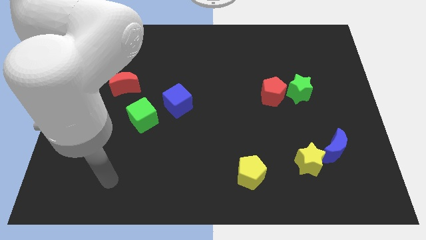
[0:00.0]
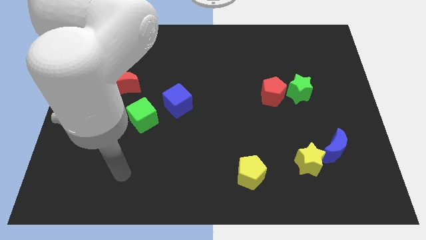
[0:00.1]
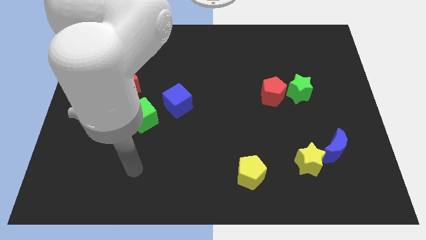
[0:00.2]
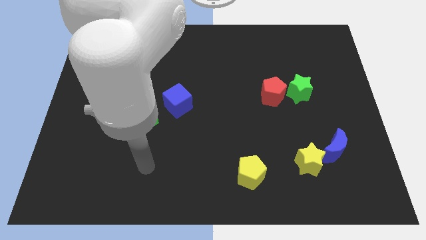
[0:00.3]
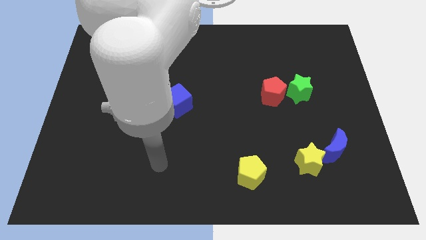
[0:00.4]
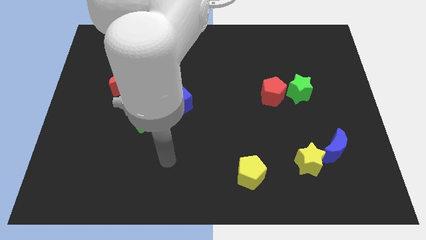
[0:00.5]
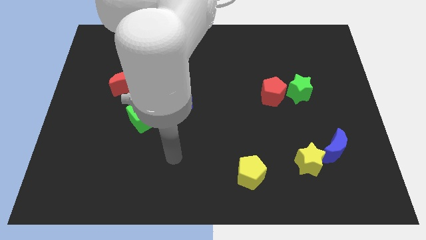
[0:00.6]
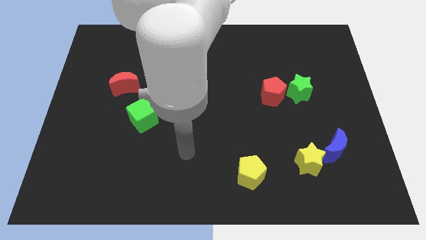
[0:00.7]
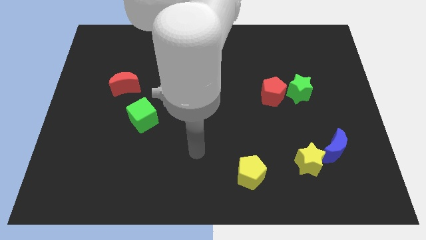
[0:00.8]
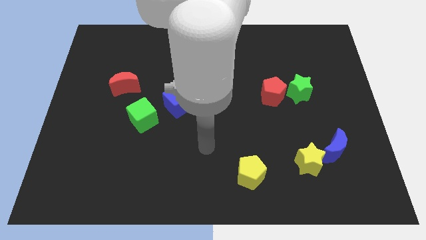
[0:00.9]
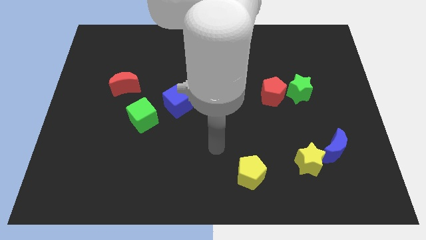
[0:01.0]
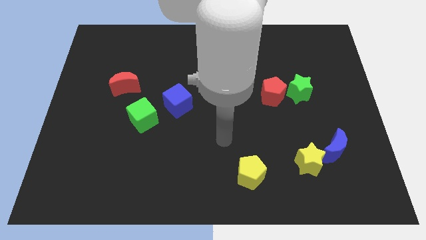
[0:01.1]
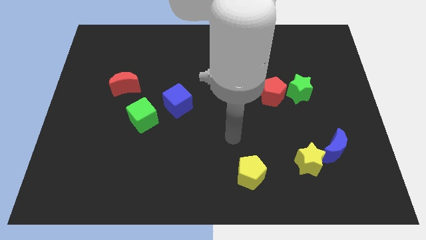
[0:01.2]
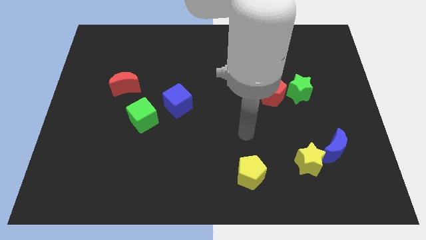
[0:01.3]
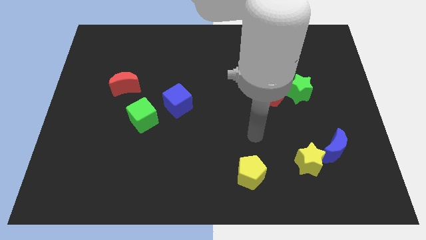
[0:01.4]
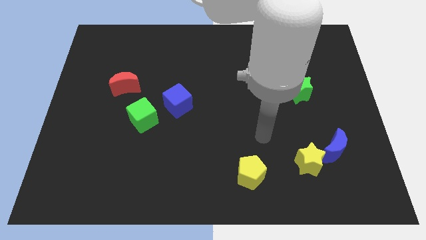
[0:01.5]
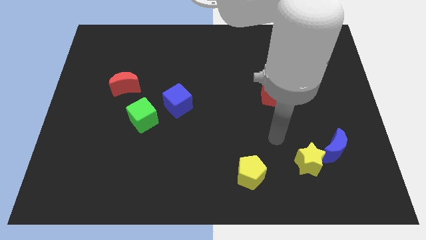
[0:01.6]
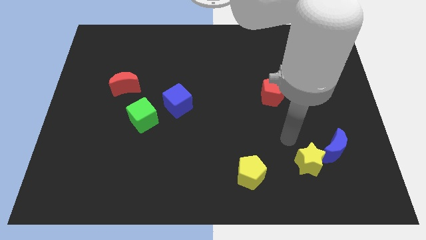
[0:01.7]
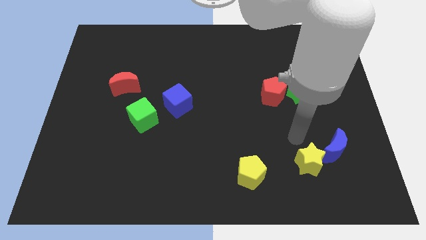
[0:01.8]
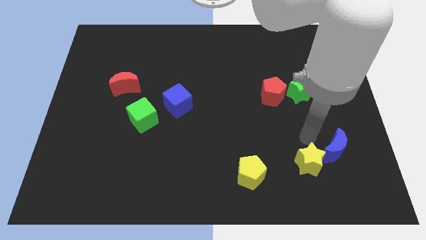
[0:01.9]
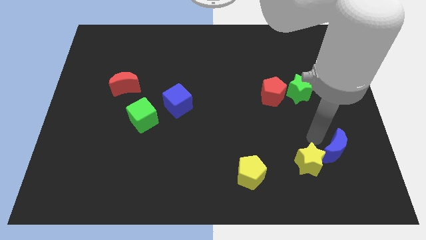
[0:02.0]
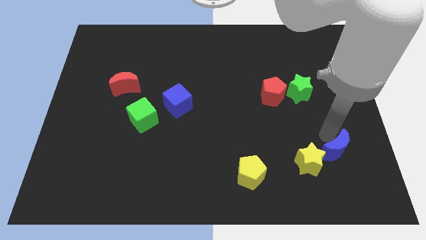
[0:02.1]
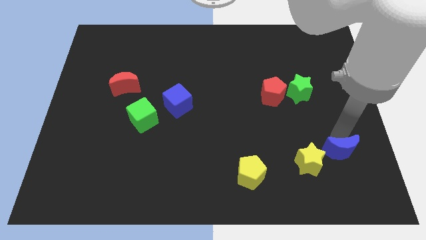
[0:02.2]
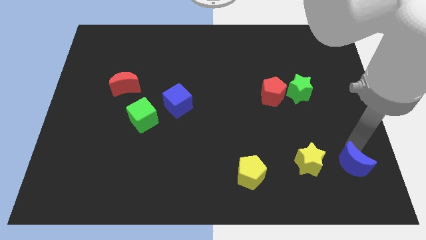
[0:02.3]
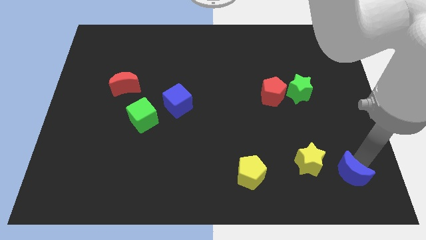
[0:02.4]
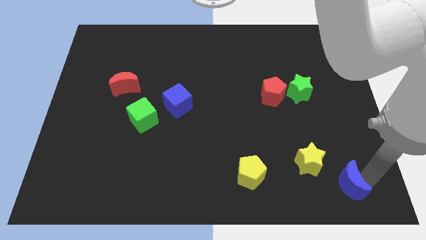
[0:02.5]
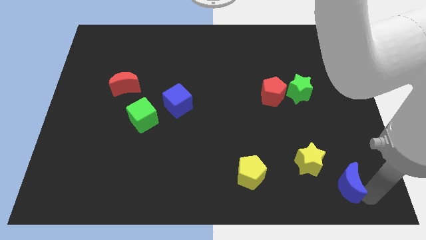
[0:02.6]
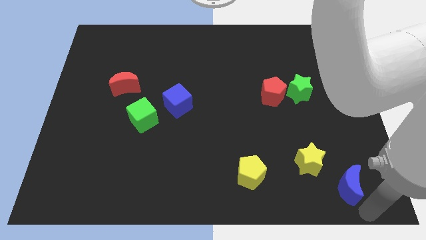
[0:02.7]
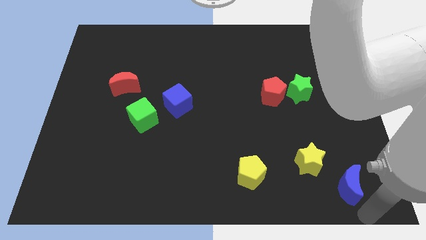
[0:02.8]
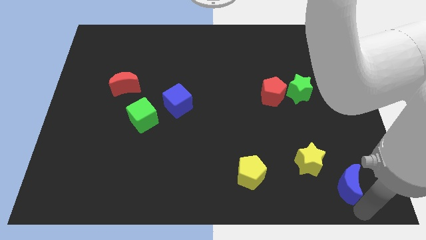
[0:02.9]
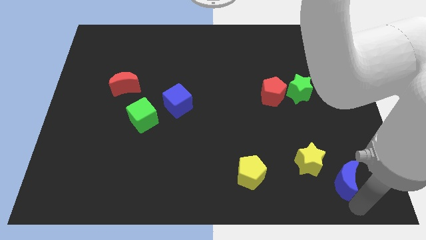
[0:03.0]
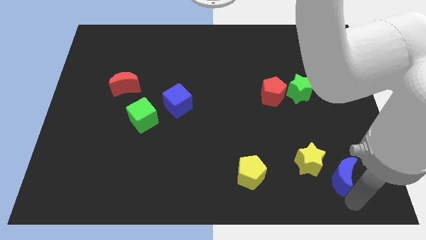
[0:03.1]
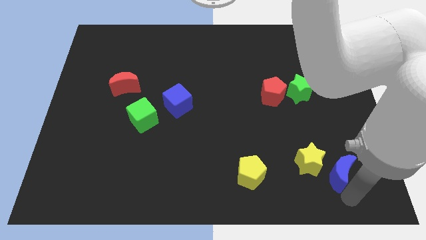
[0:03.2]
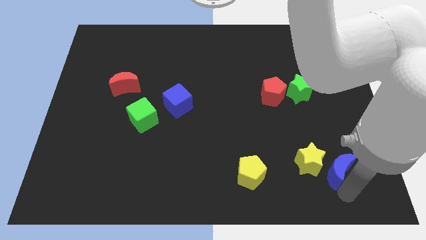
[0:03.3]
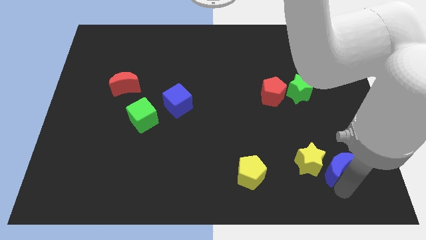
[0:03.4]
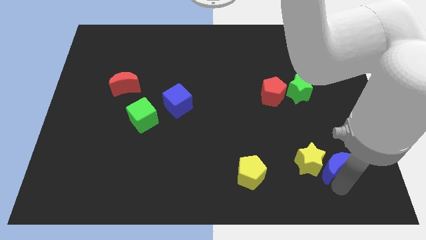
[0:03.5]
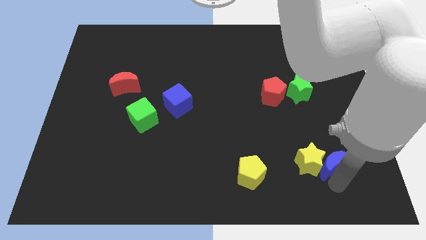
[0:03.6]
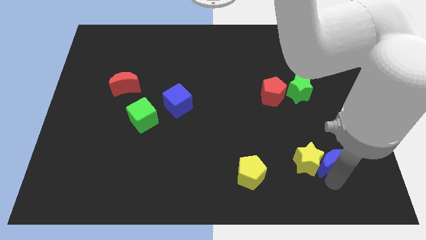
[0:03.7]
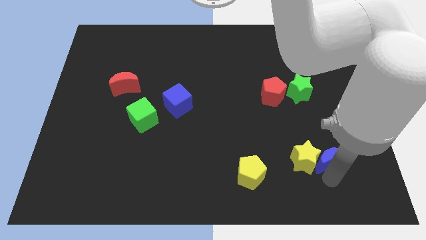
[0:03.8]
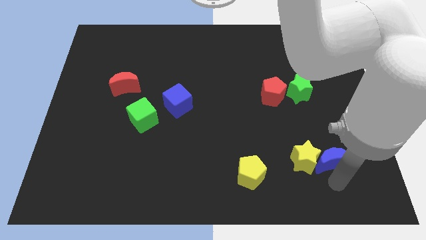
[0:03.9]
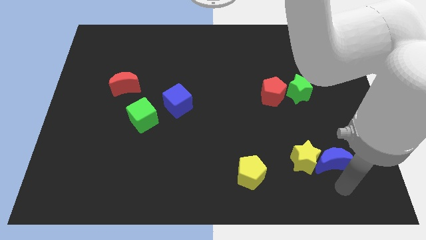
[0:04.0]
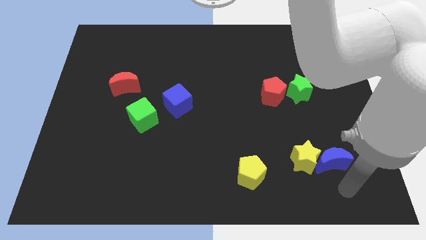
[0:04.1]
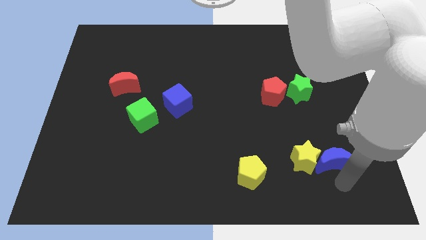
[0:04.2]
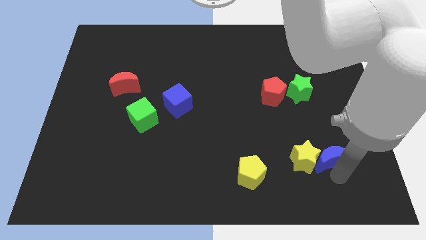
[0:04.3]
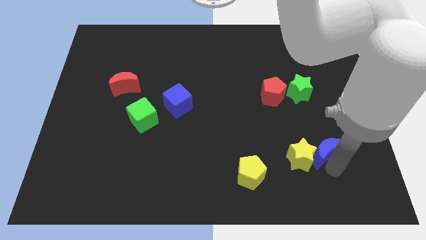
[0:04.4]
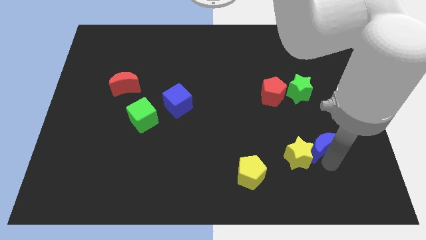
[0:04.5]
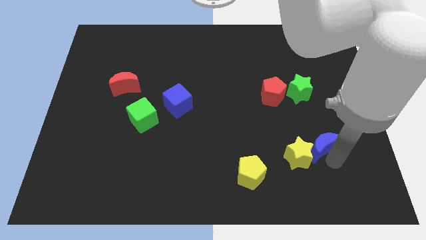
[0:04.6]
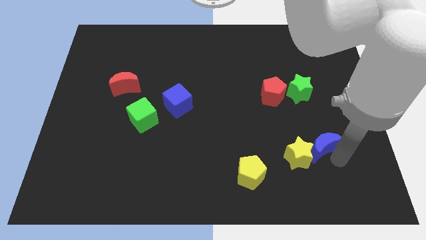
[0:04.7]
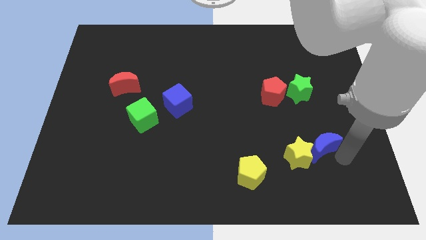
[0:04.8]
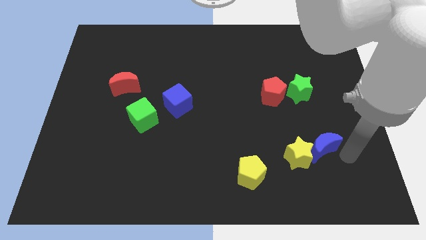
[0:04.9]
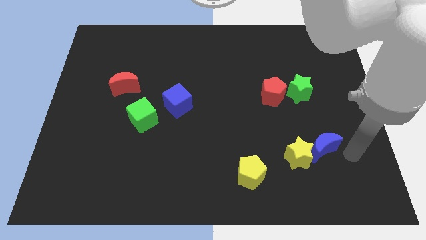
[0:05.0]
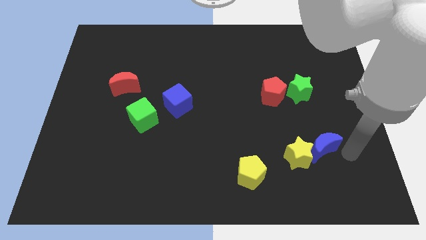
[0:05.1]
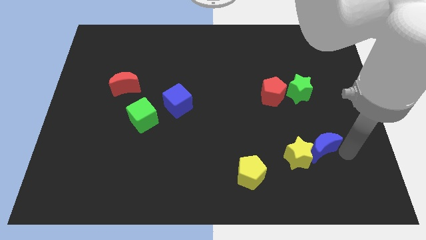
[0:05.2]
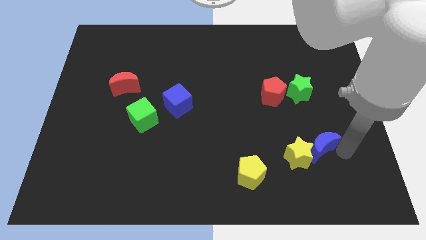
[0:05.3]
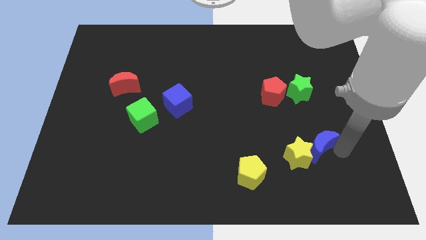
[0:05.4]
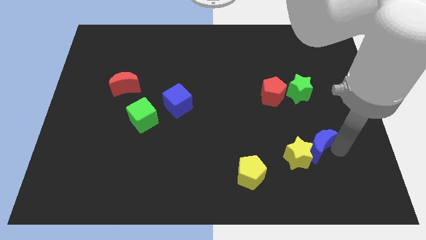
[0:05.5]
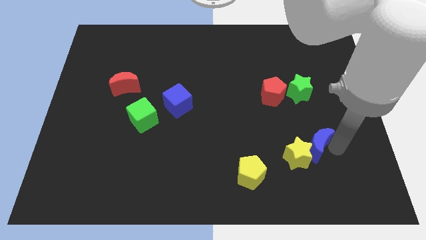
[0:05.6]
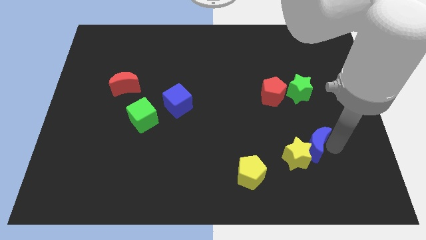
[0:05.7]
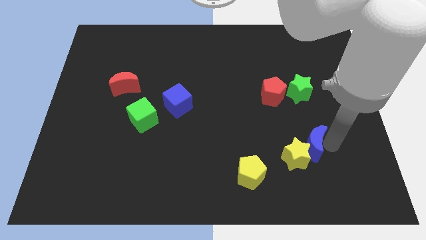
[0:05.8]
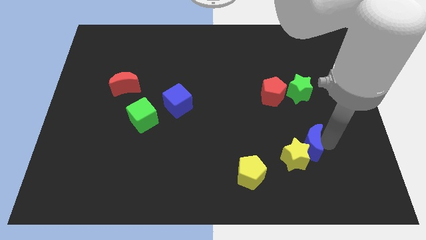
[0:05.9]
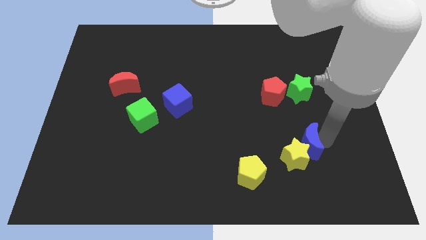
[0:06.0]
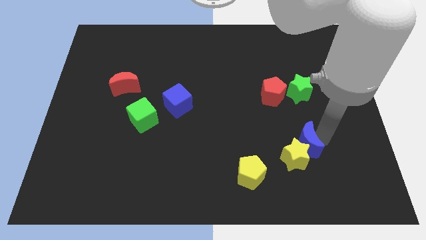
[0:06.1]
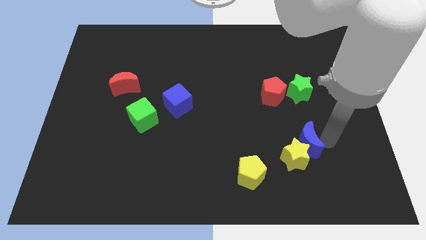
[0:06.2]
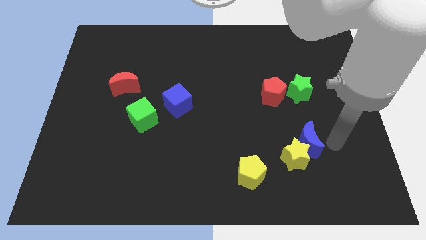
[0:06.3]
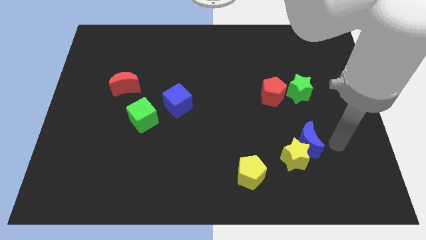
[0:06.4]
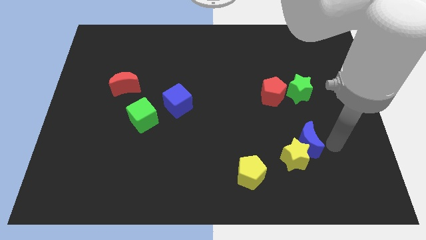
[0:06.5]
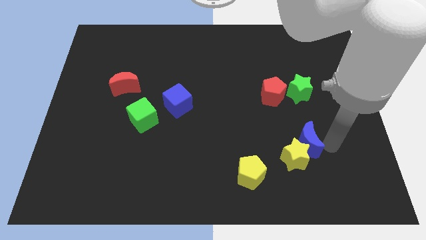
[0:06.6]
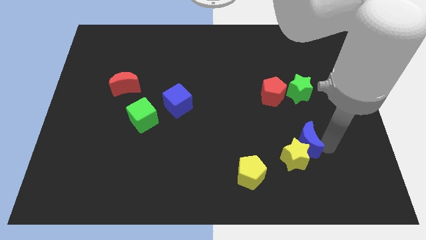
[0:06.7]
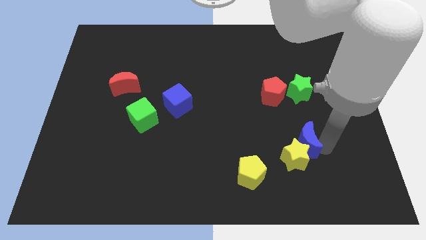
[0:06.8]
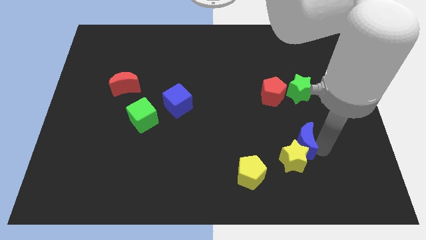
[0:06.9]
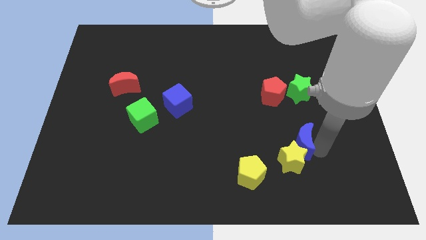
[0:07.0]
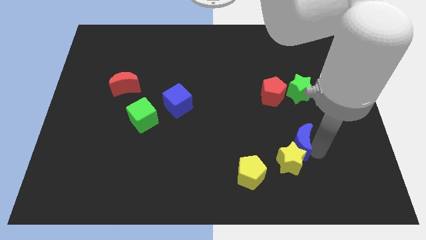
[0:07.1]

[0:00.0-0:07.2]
move the blue moon slightly left
